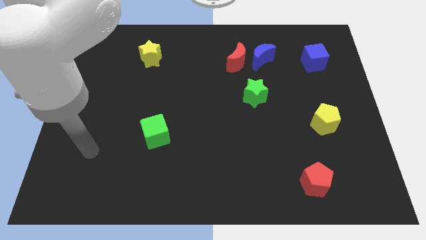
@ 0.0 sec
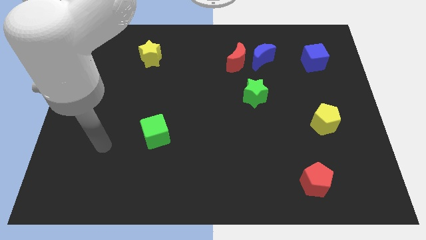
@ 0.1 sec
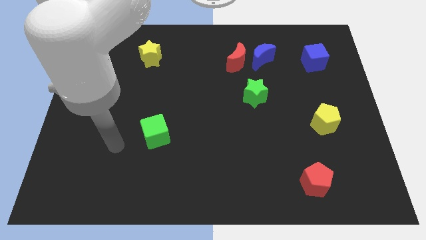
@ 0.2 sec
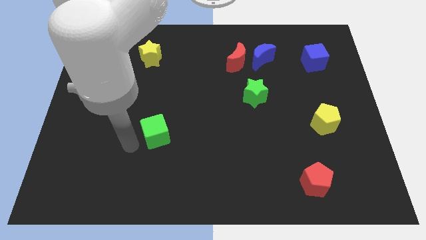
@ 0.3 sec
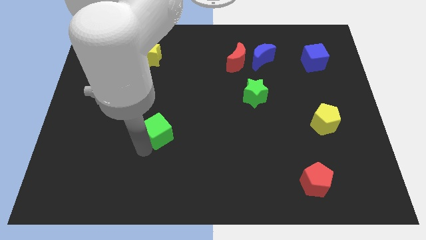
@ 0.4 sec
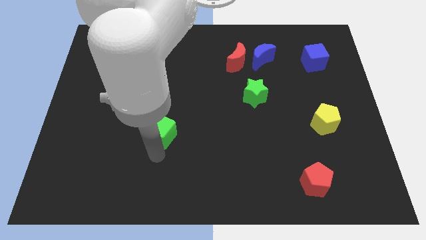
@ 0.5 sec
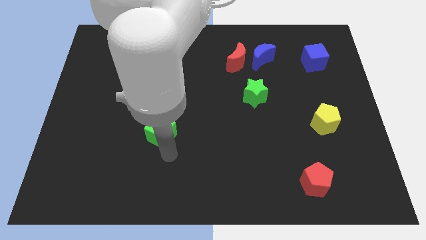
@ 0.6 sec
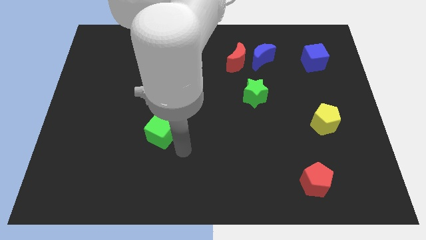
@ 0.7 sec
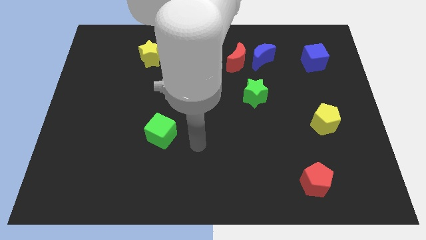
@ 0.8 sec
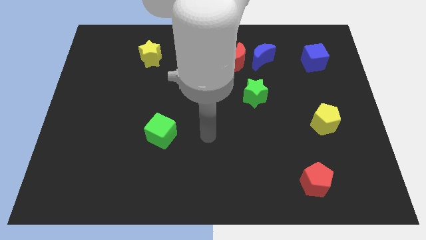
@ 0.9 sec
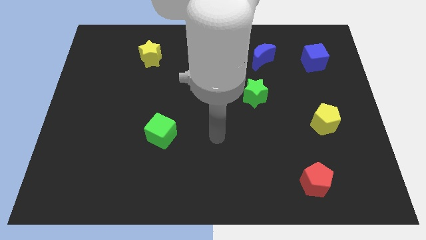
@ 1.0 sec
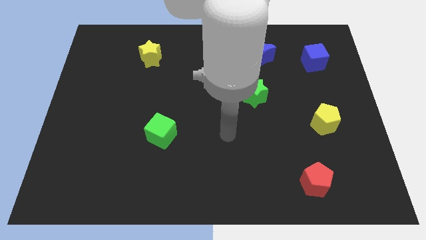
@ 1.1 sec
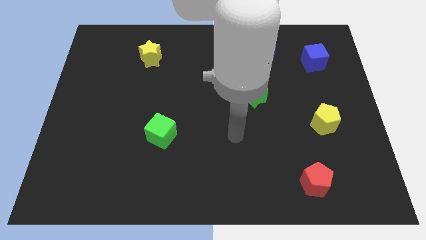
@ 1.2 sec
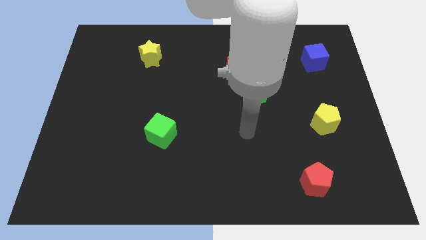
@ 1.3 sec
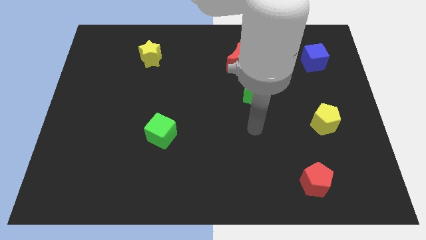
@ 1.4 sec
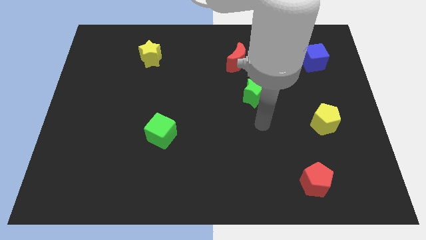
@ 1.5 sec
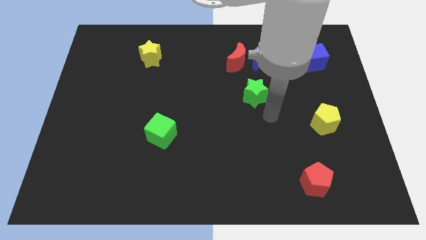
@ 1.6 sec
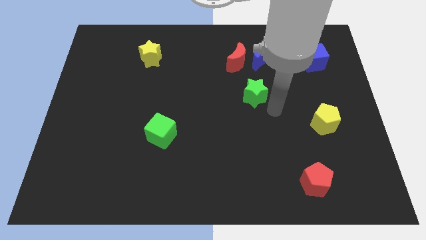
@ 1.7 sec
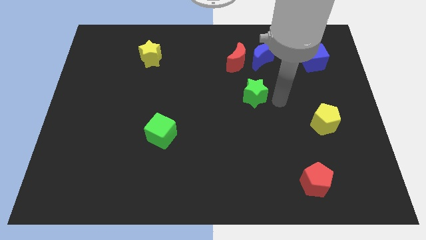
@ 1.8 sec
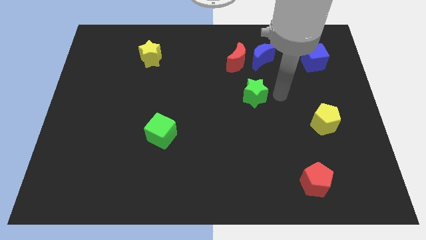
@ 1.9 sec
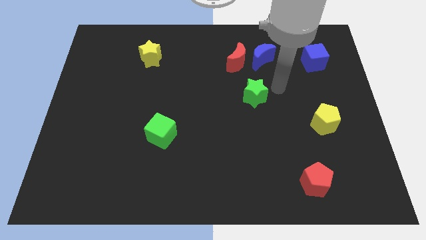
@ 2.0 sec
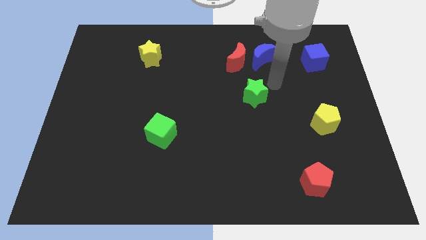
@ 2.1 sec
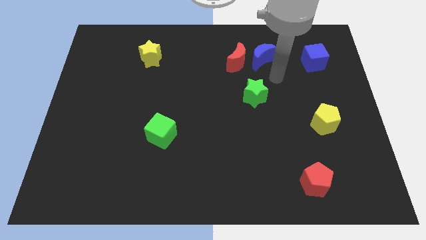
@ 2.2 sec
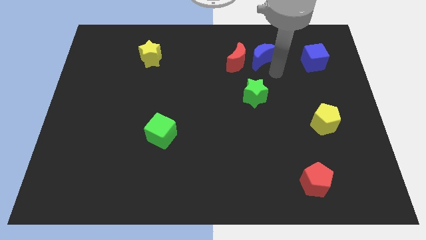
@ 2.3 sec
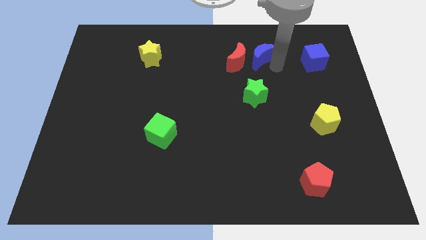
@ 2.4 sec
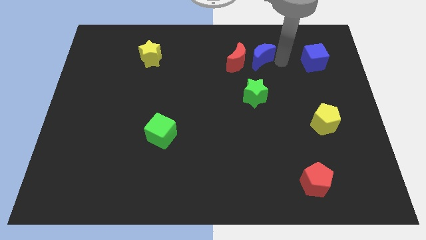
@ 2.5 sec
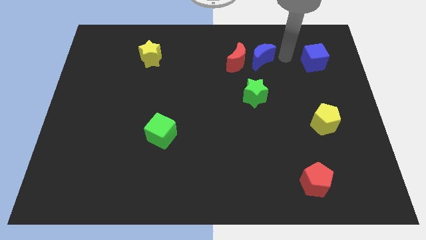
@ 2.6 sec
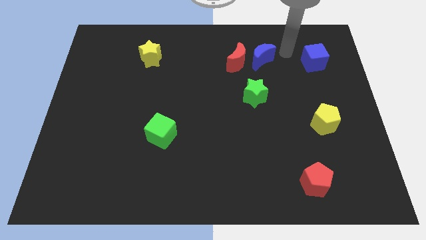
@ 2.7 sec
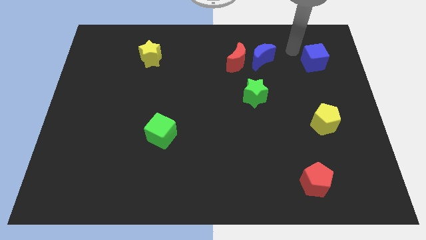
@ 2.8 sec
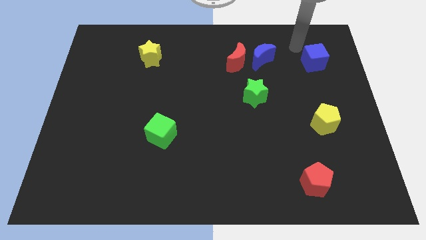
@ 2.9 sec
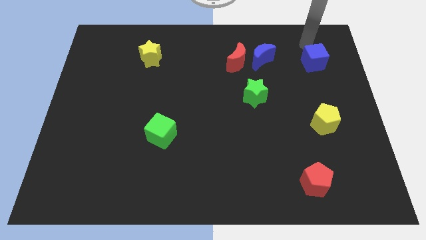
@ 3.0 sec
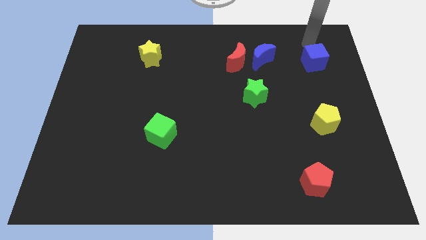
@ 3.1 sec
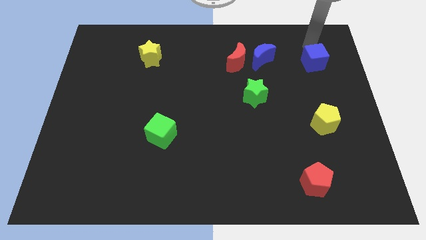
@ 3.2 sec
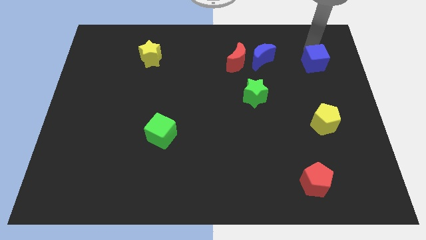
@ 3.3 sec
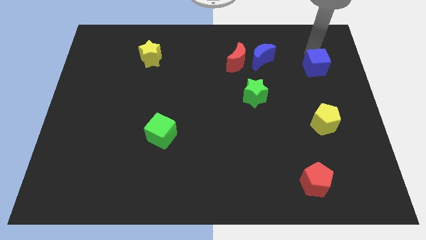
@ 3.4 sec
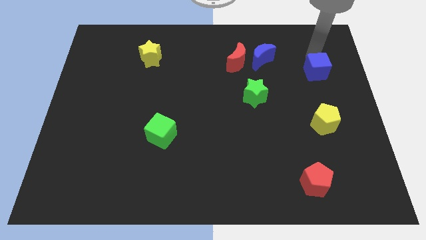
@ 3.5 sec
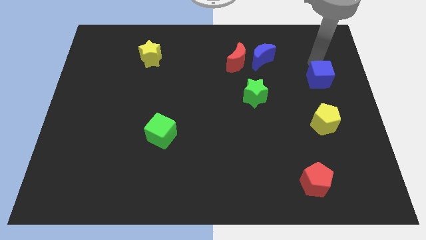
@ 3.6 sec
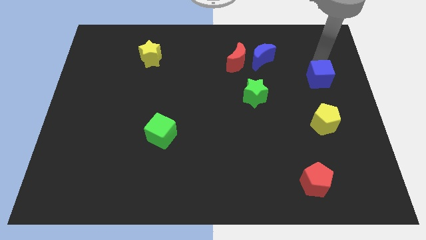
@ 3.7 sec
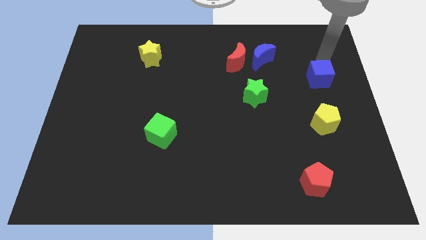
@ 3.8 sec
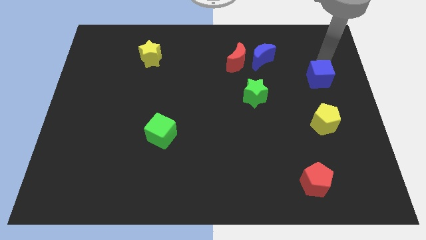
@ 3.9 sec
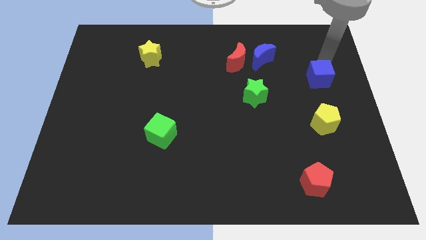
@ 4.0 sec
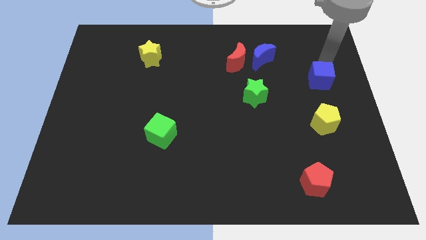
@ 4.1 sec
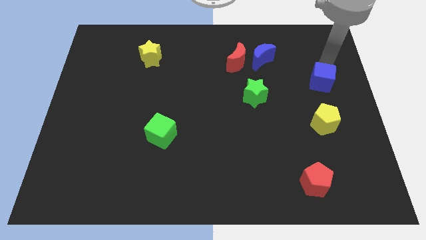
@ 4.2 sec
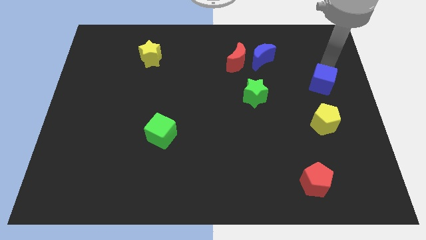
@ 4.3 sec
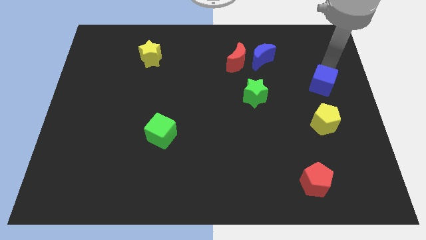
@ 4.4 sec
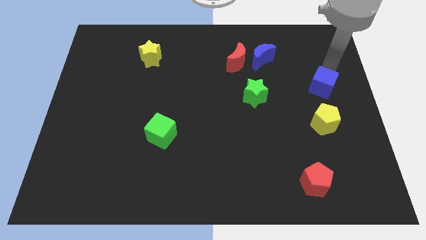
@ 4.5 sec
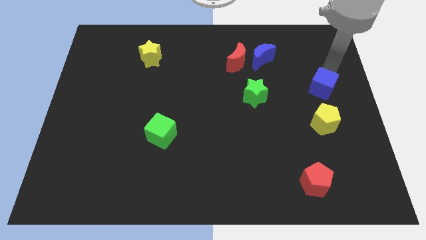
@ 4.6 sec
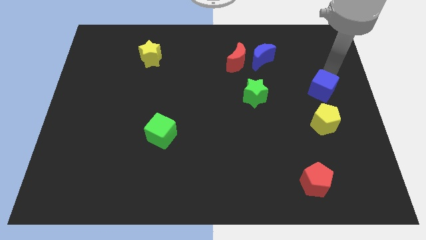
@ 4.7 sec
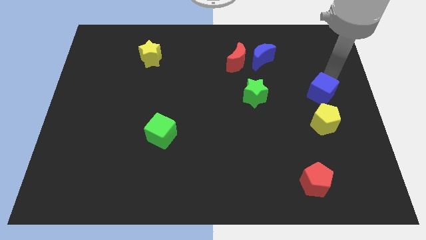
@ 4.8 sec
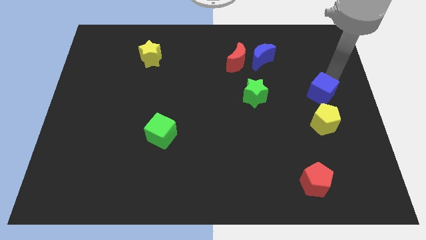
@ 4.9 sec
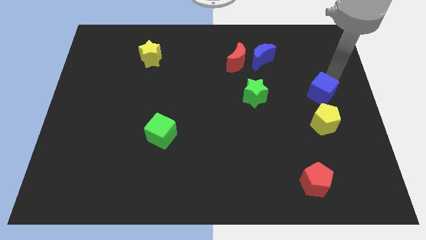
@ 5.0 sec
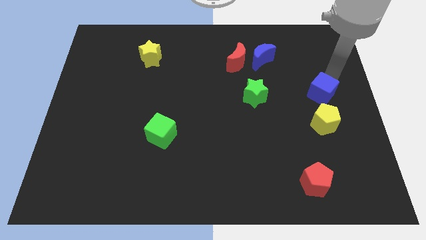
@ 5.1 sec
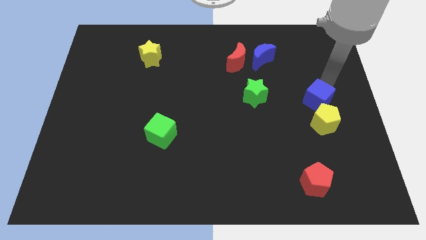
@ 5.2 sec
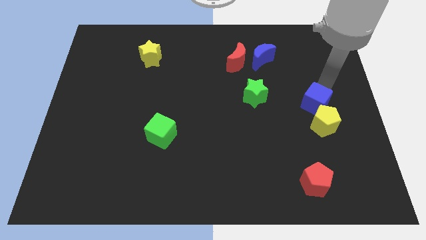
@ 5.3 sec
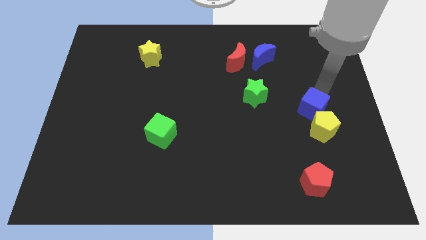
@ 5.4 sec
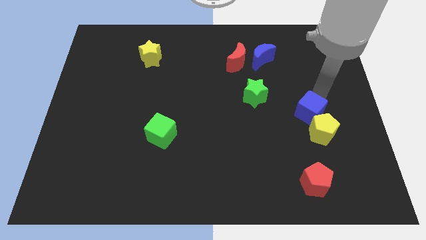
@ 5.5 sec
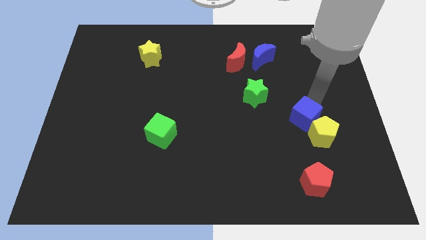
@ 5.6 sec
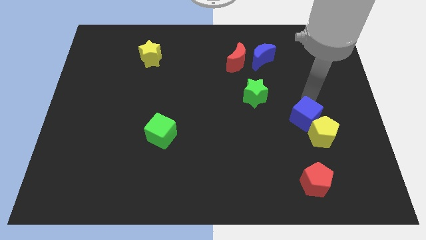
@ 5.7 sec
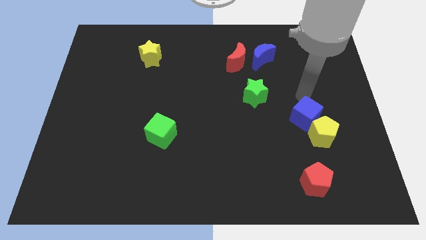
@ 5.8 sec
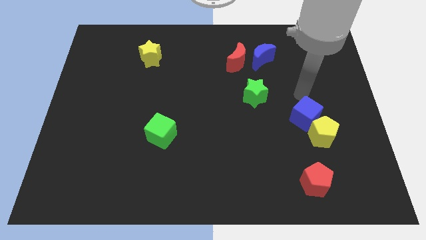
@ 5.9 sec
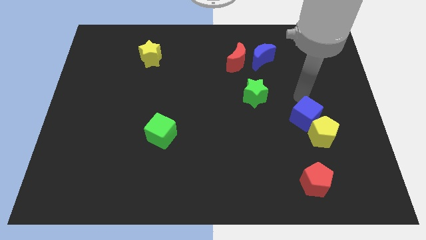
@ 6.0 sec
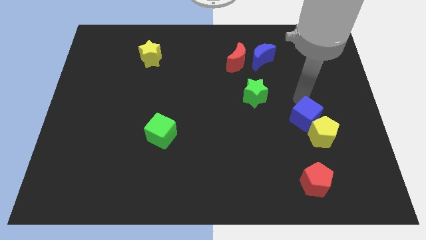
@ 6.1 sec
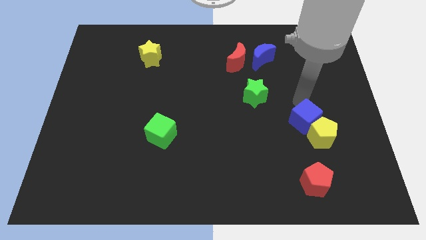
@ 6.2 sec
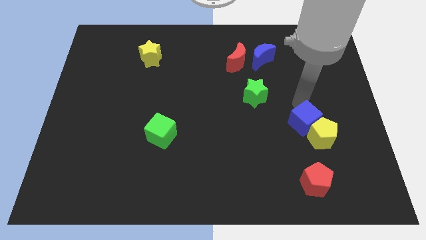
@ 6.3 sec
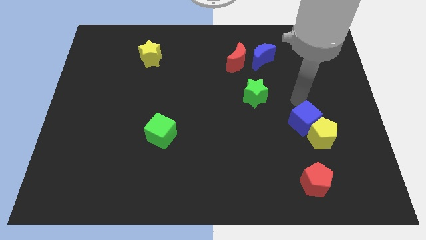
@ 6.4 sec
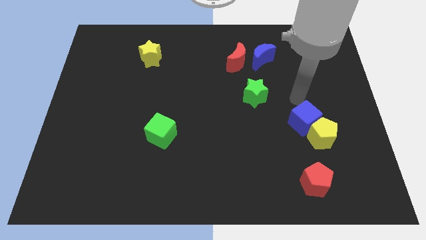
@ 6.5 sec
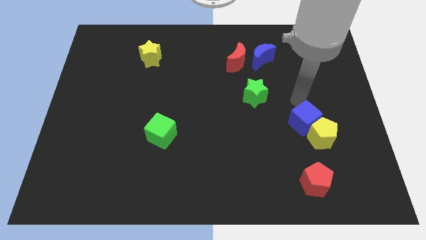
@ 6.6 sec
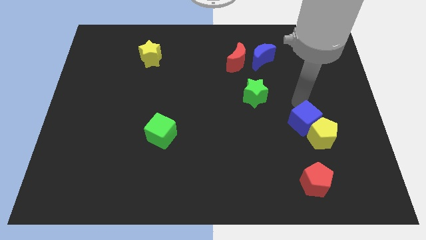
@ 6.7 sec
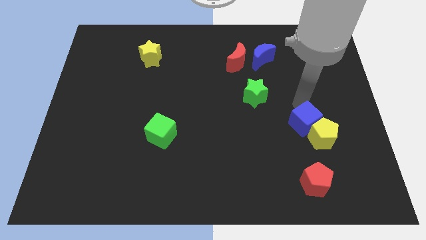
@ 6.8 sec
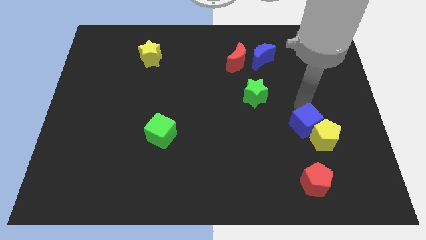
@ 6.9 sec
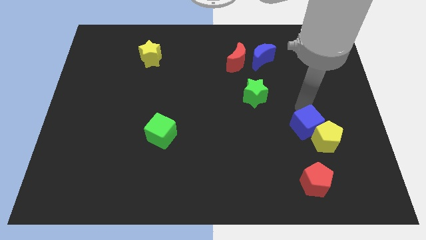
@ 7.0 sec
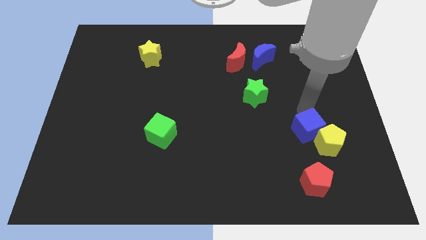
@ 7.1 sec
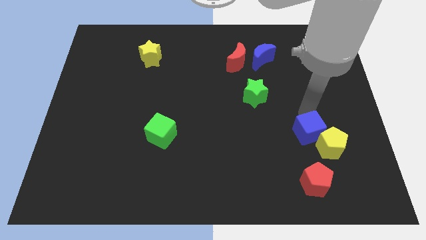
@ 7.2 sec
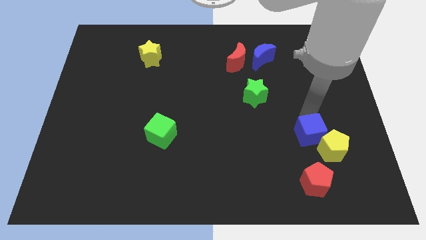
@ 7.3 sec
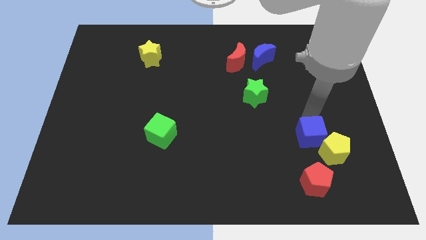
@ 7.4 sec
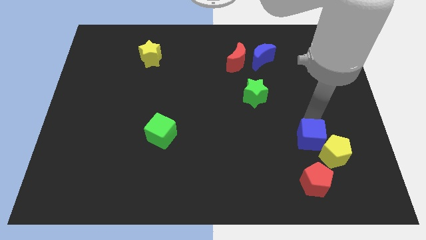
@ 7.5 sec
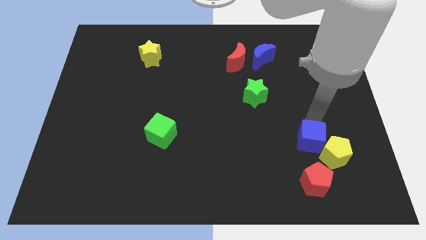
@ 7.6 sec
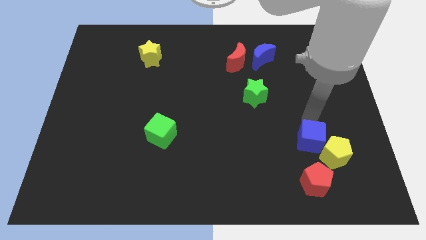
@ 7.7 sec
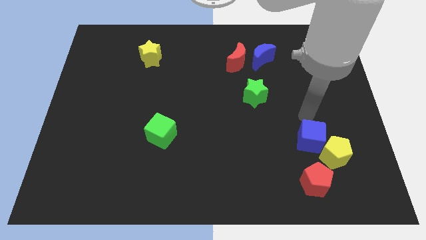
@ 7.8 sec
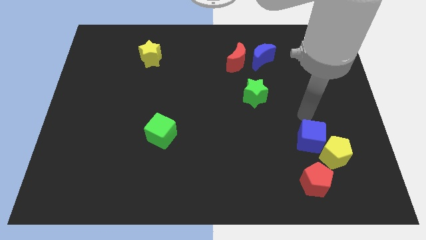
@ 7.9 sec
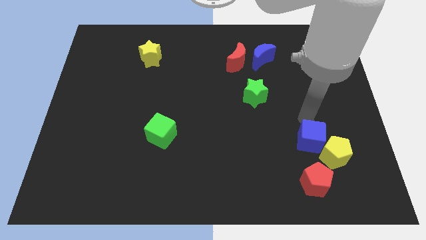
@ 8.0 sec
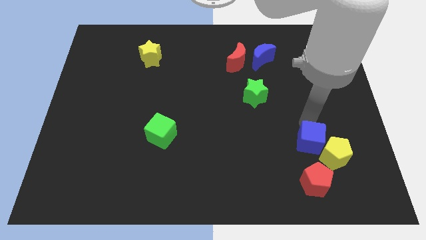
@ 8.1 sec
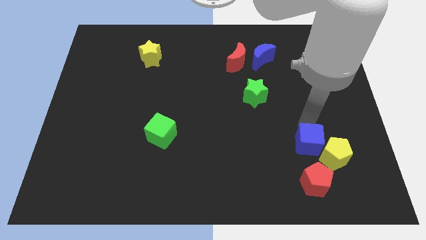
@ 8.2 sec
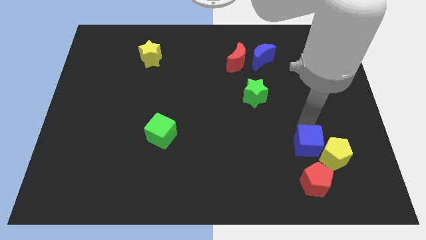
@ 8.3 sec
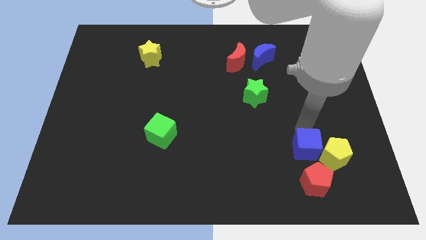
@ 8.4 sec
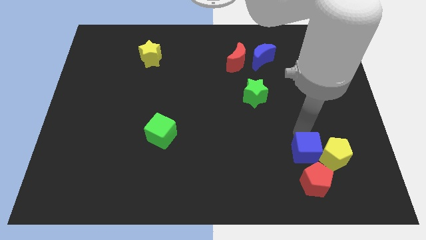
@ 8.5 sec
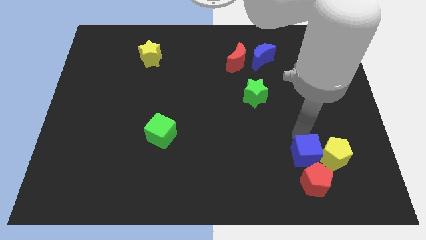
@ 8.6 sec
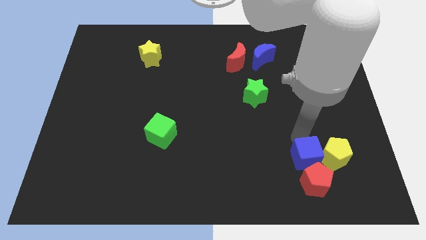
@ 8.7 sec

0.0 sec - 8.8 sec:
push the blue cube next to the red pentagon
